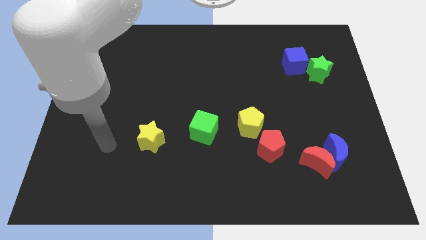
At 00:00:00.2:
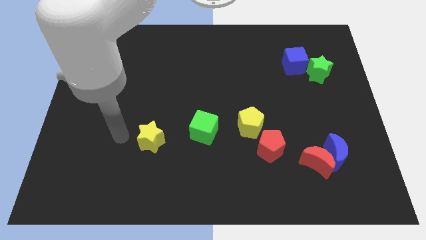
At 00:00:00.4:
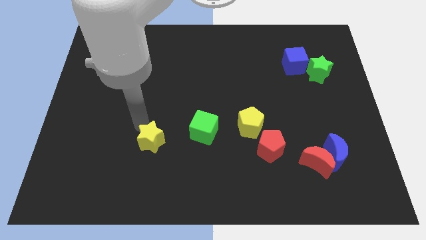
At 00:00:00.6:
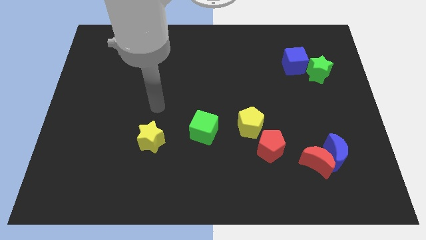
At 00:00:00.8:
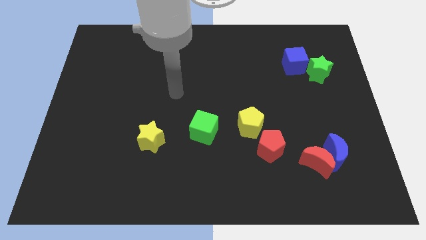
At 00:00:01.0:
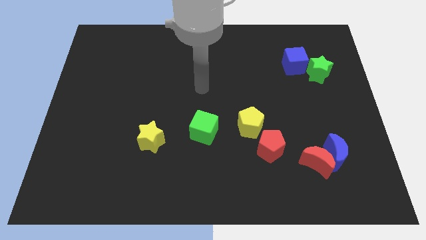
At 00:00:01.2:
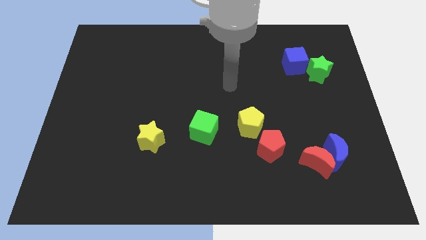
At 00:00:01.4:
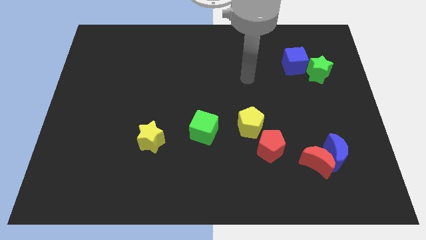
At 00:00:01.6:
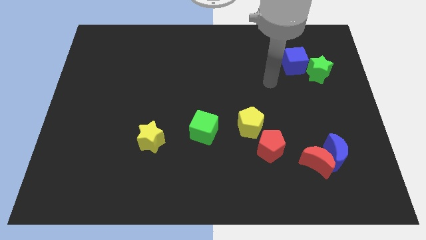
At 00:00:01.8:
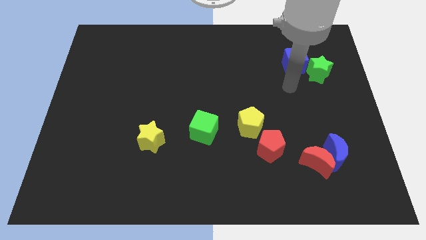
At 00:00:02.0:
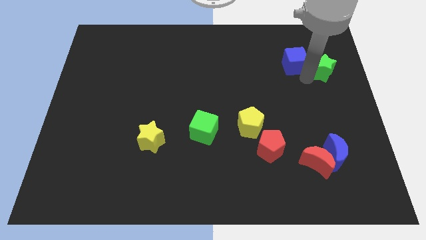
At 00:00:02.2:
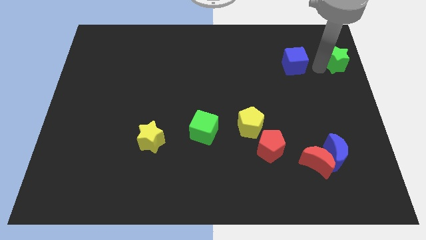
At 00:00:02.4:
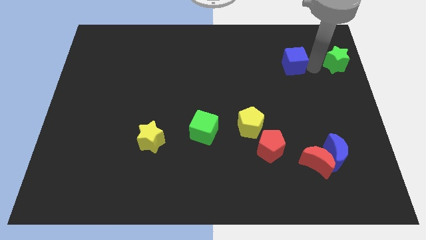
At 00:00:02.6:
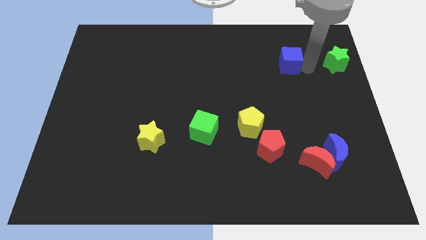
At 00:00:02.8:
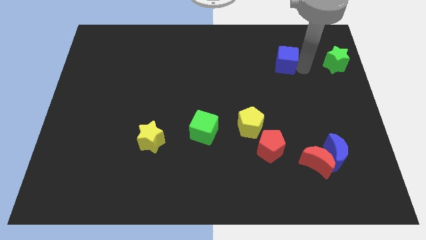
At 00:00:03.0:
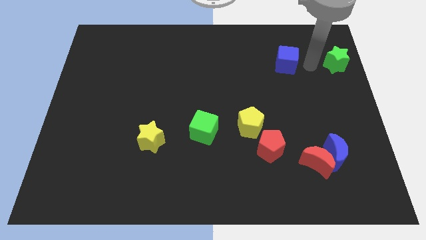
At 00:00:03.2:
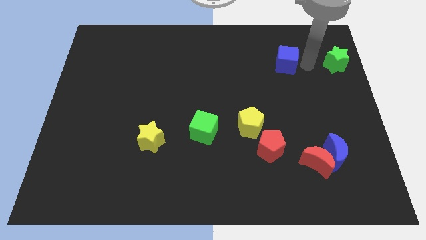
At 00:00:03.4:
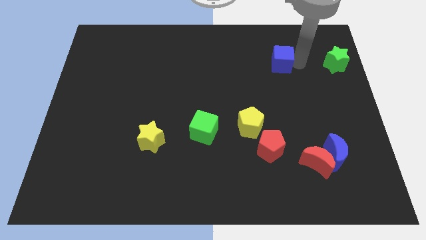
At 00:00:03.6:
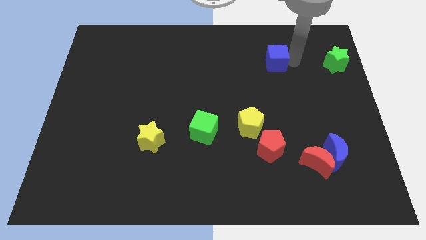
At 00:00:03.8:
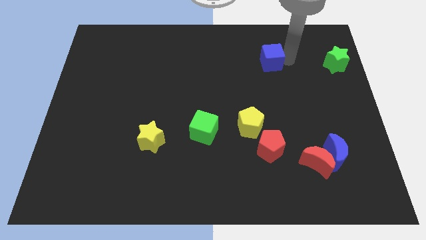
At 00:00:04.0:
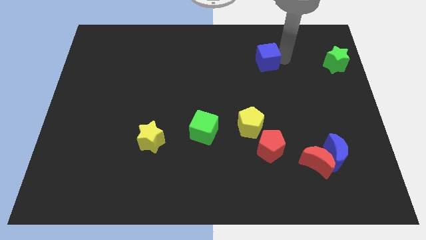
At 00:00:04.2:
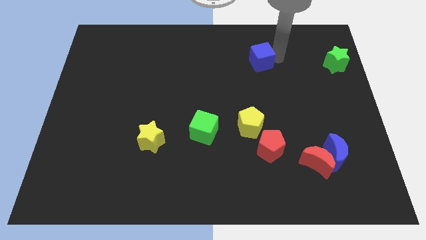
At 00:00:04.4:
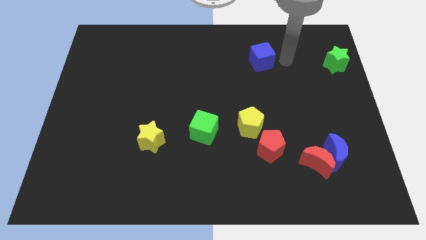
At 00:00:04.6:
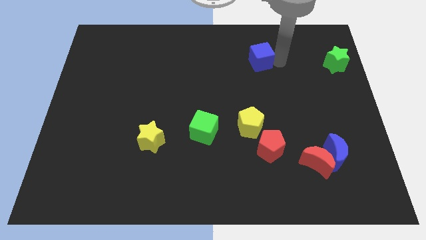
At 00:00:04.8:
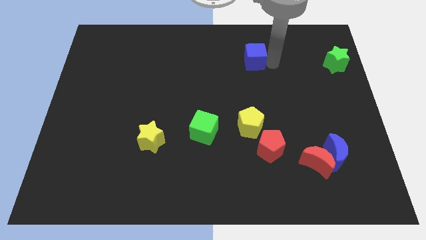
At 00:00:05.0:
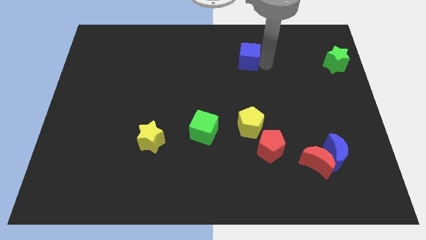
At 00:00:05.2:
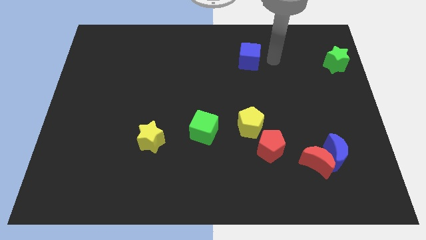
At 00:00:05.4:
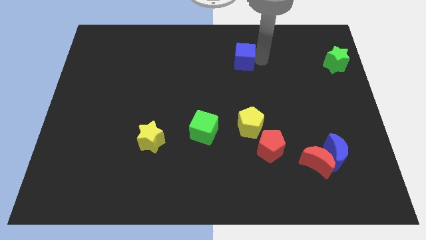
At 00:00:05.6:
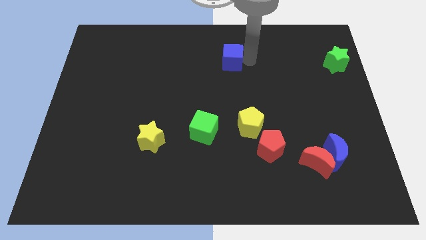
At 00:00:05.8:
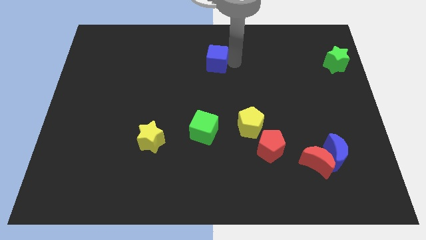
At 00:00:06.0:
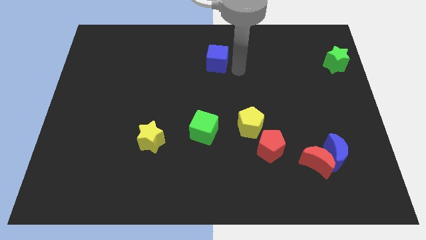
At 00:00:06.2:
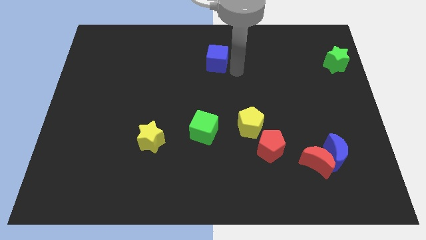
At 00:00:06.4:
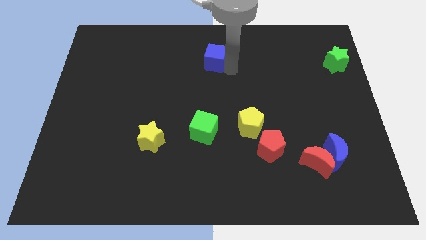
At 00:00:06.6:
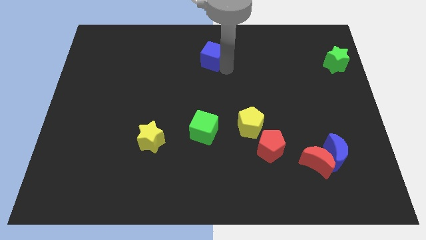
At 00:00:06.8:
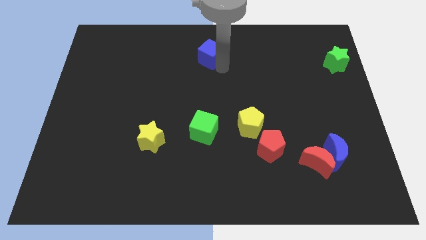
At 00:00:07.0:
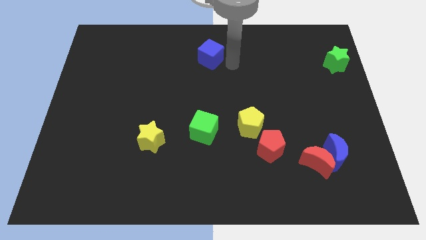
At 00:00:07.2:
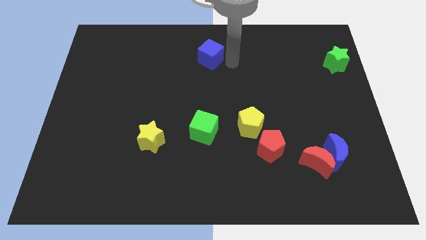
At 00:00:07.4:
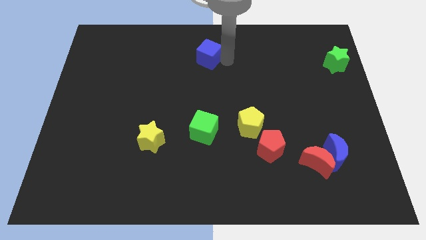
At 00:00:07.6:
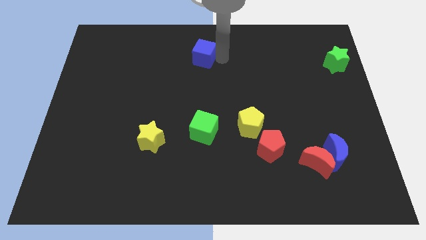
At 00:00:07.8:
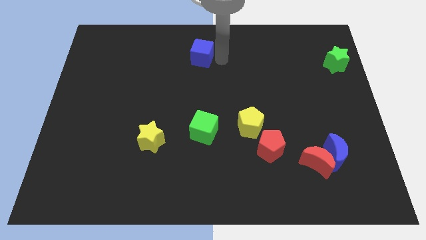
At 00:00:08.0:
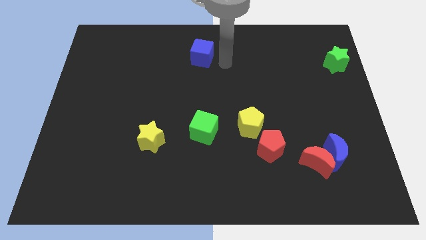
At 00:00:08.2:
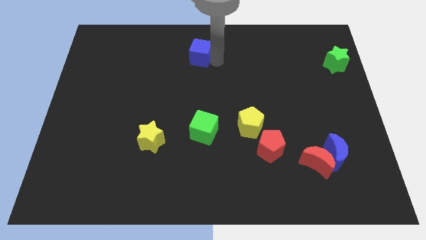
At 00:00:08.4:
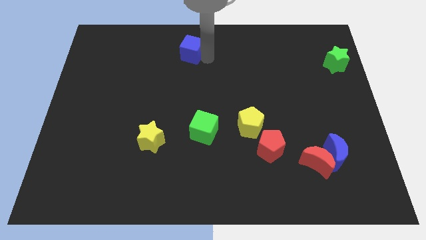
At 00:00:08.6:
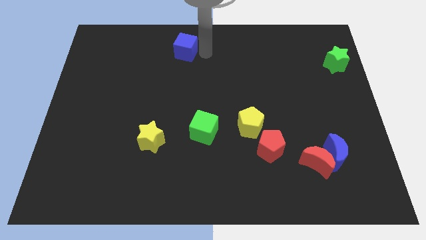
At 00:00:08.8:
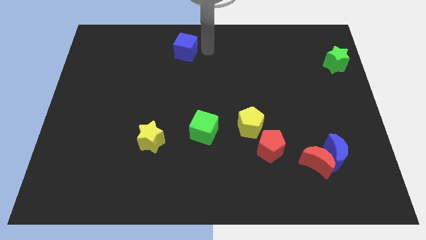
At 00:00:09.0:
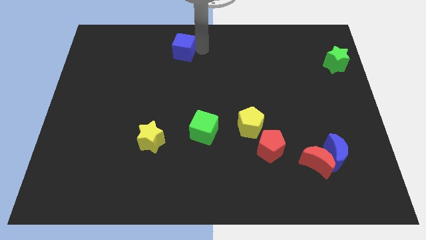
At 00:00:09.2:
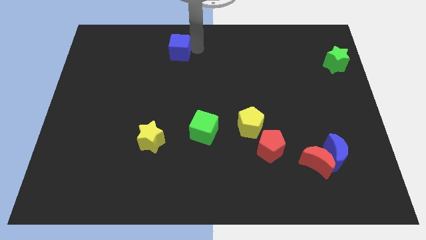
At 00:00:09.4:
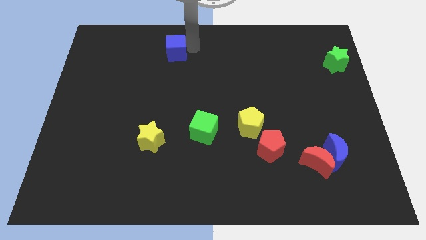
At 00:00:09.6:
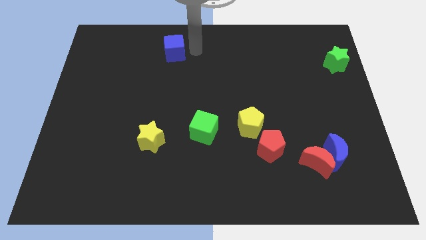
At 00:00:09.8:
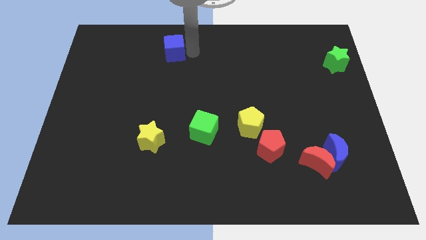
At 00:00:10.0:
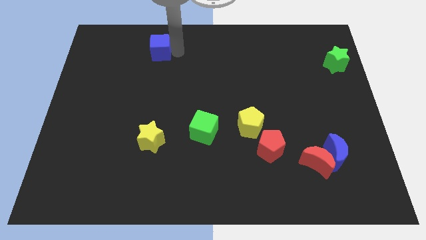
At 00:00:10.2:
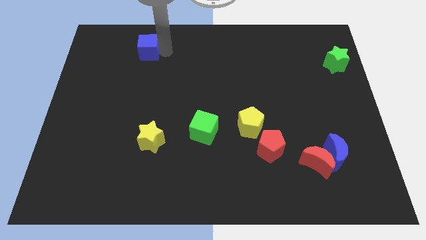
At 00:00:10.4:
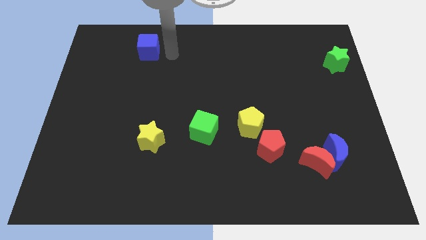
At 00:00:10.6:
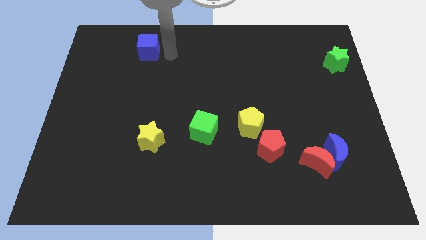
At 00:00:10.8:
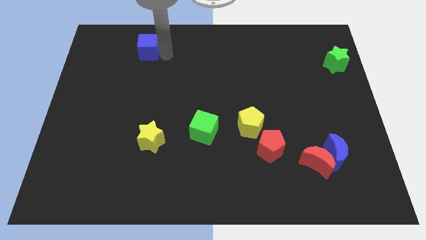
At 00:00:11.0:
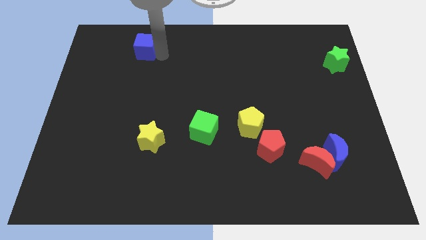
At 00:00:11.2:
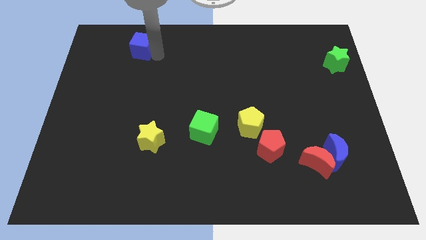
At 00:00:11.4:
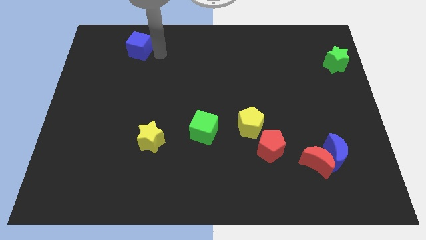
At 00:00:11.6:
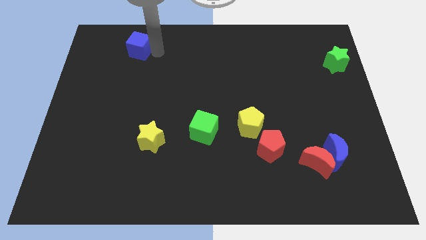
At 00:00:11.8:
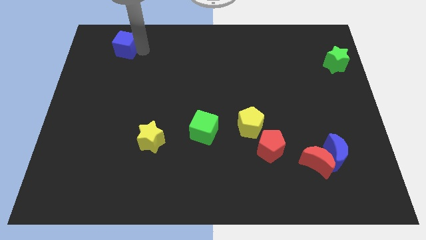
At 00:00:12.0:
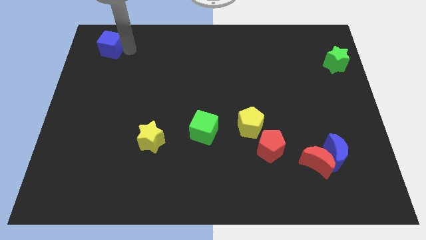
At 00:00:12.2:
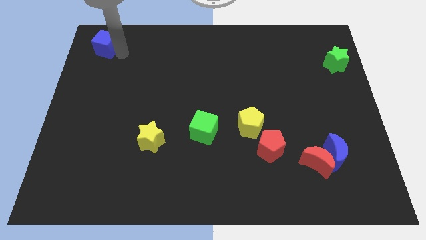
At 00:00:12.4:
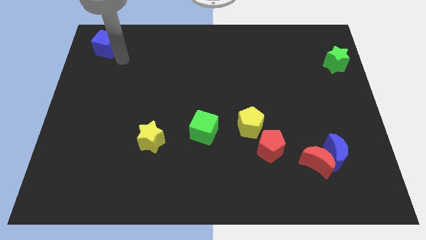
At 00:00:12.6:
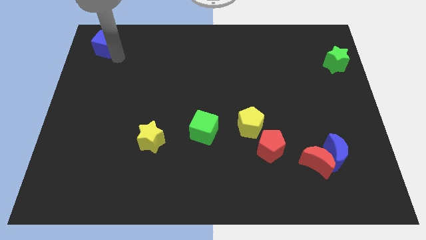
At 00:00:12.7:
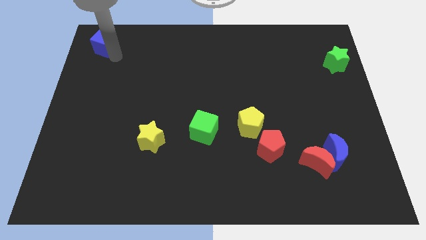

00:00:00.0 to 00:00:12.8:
push the blue cube to the top left of the board
